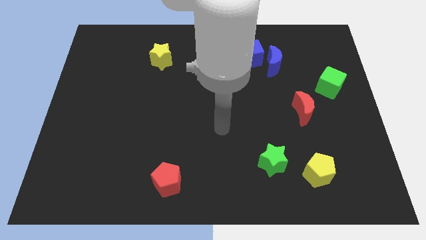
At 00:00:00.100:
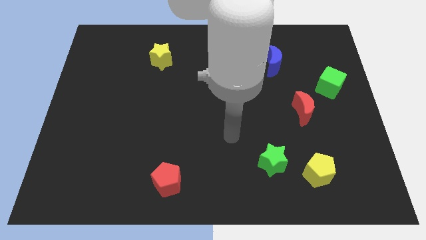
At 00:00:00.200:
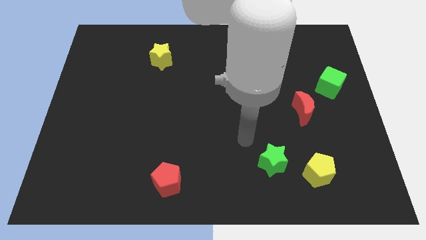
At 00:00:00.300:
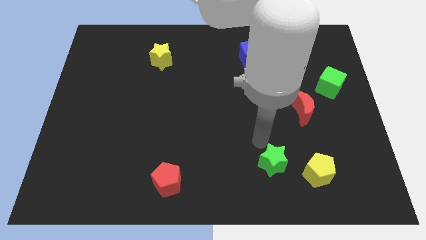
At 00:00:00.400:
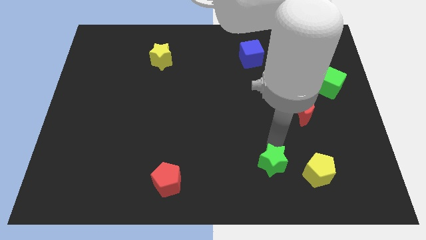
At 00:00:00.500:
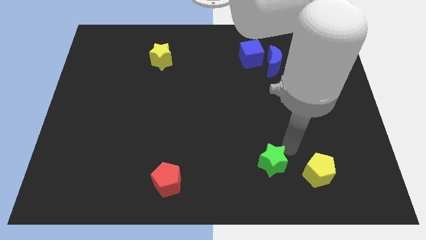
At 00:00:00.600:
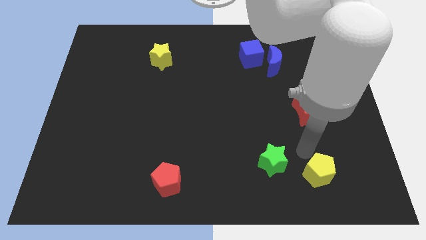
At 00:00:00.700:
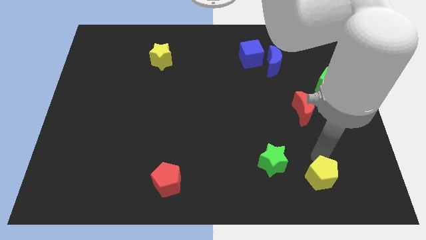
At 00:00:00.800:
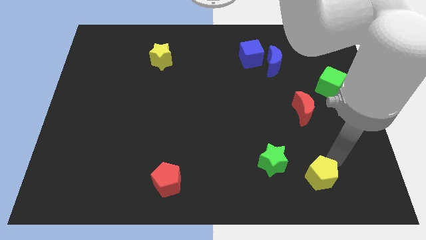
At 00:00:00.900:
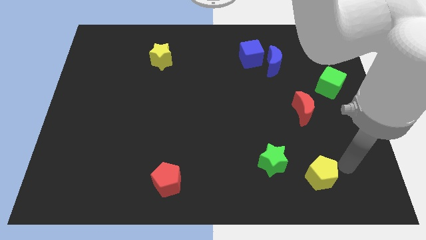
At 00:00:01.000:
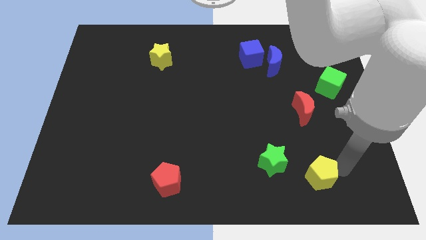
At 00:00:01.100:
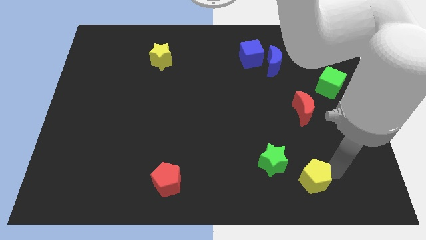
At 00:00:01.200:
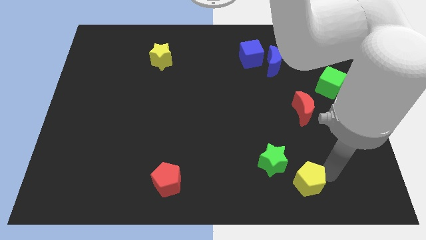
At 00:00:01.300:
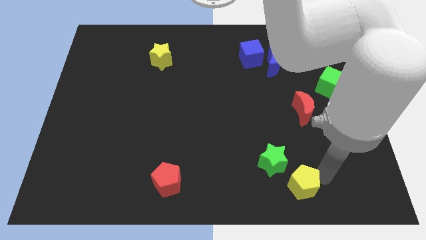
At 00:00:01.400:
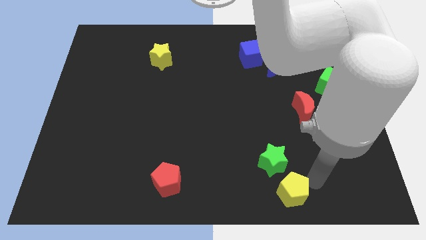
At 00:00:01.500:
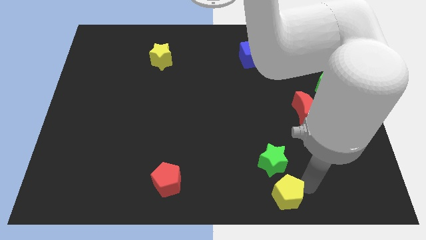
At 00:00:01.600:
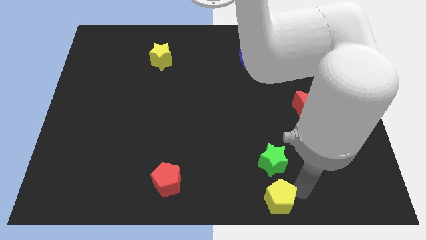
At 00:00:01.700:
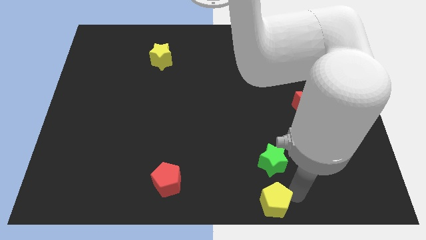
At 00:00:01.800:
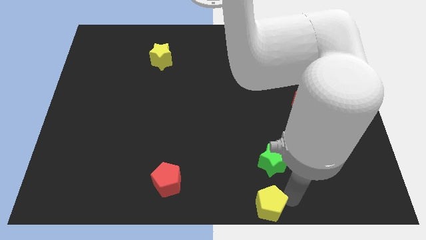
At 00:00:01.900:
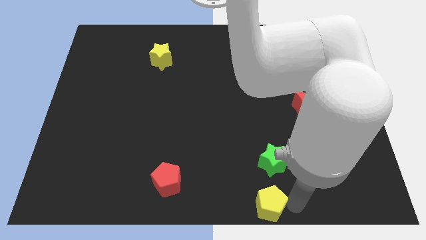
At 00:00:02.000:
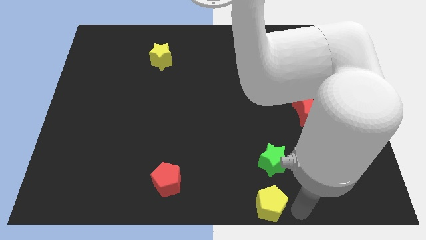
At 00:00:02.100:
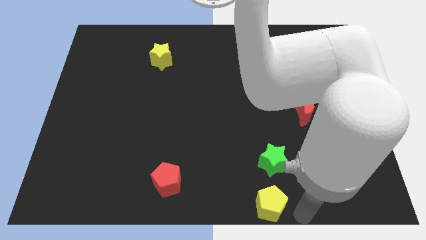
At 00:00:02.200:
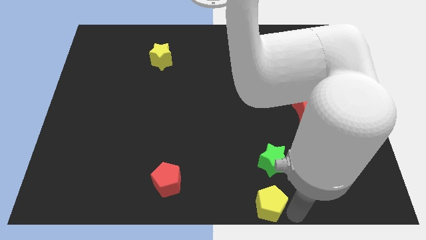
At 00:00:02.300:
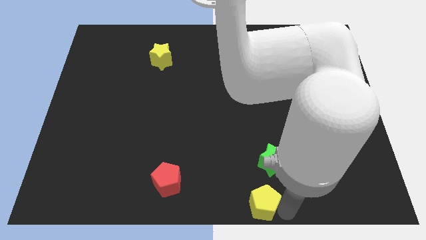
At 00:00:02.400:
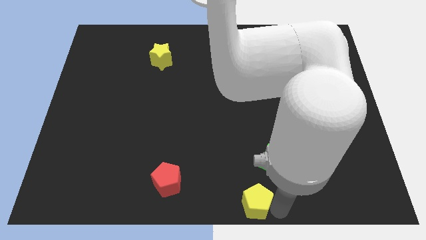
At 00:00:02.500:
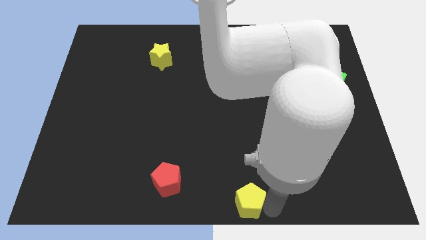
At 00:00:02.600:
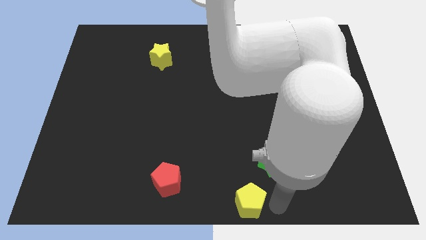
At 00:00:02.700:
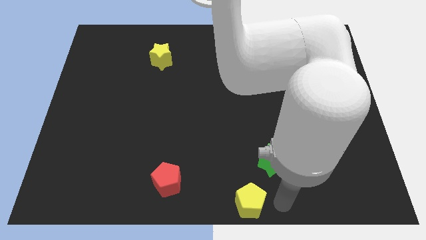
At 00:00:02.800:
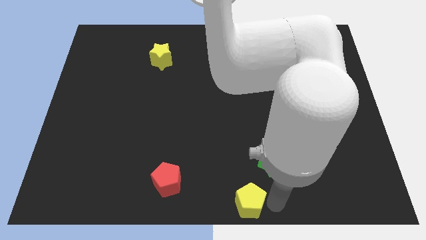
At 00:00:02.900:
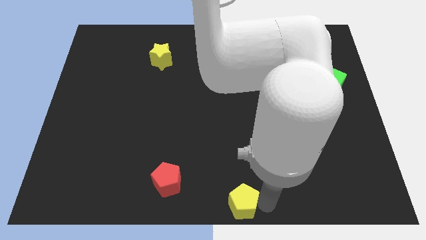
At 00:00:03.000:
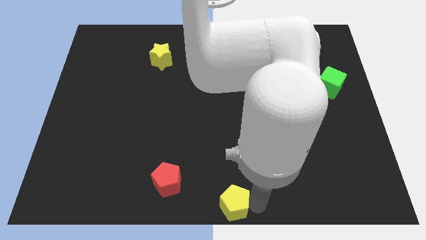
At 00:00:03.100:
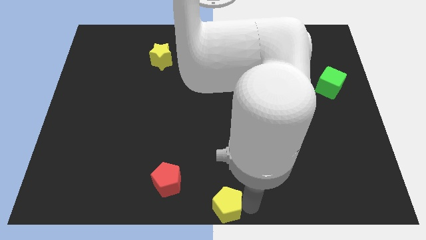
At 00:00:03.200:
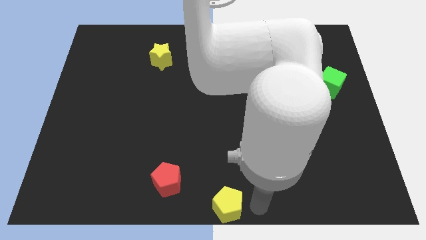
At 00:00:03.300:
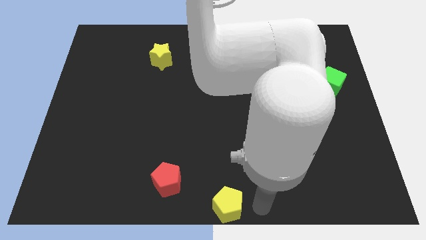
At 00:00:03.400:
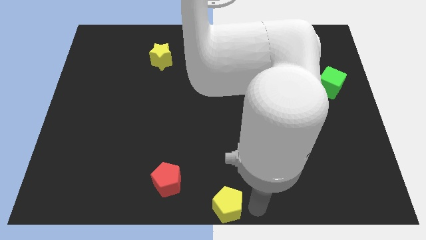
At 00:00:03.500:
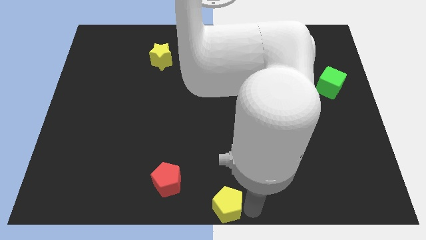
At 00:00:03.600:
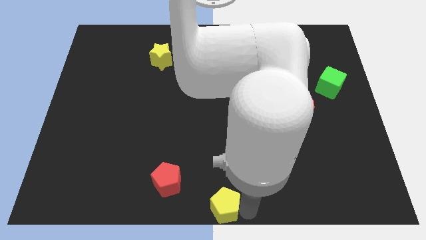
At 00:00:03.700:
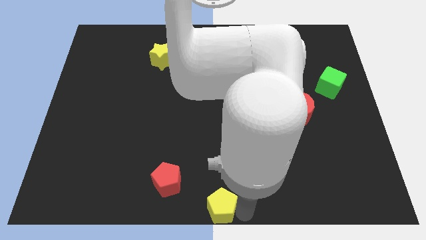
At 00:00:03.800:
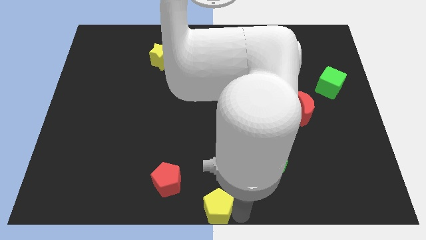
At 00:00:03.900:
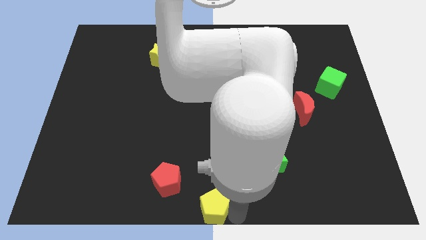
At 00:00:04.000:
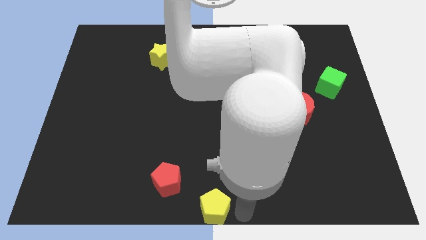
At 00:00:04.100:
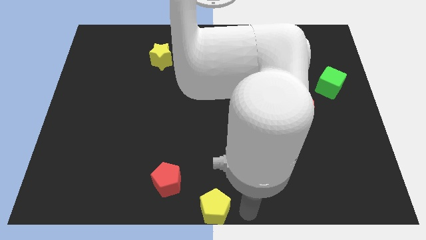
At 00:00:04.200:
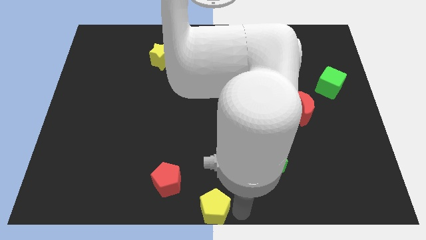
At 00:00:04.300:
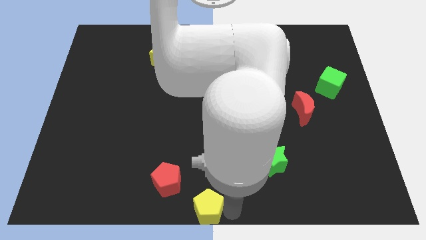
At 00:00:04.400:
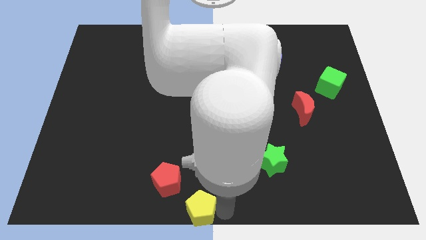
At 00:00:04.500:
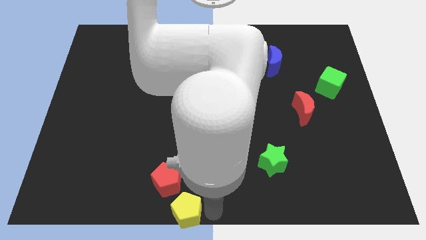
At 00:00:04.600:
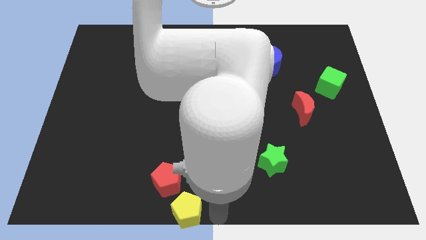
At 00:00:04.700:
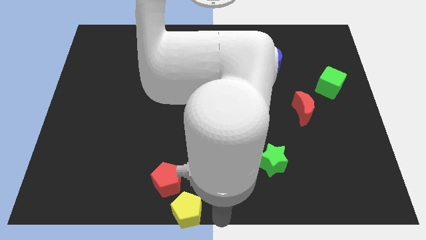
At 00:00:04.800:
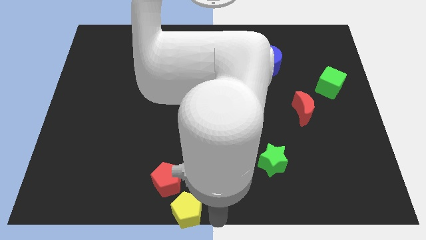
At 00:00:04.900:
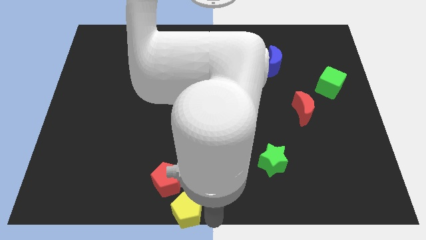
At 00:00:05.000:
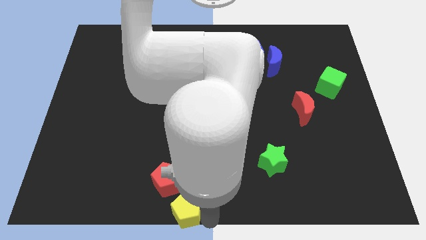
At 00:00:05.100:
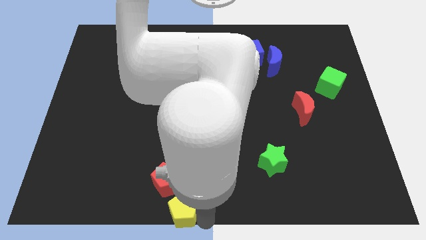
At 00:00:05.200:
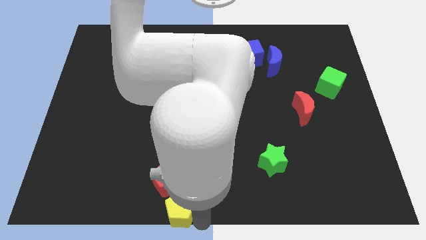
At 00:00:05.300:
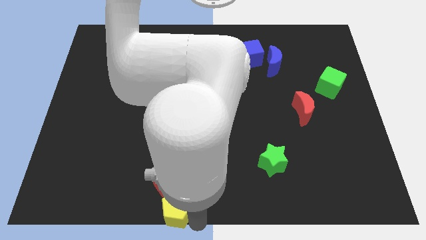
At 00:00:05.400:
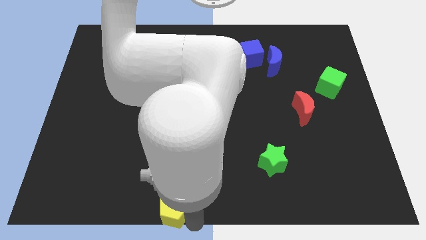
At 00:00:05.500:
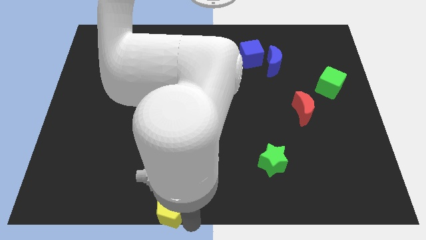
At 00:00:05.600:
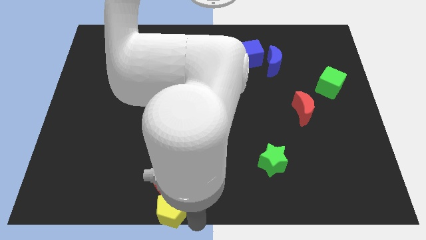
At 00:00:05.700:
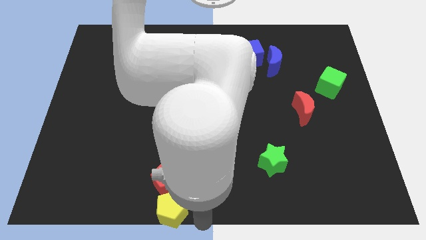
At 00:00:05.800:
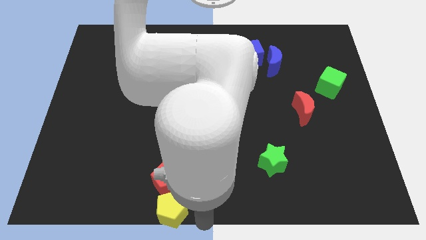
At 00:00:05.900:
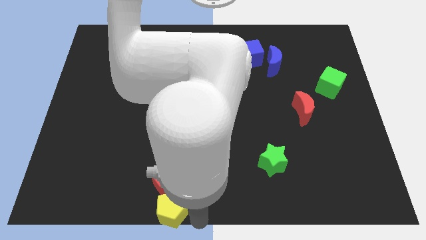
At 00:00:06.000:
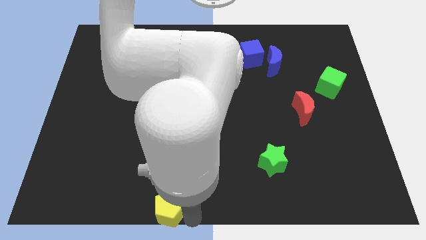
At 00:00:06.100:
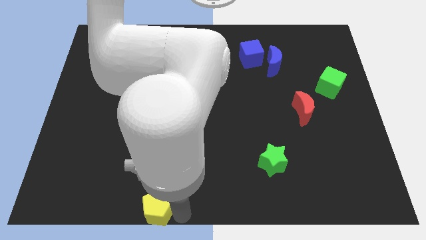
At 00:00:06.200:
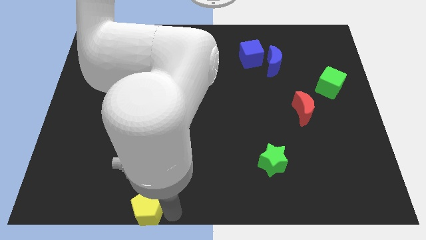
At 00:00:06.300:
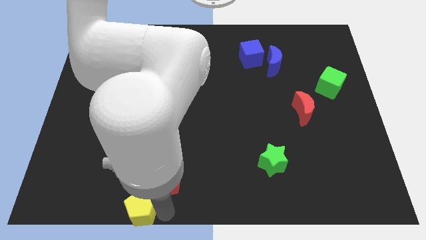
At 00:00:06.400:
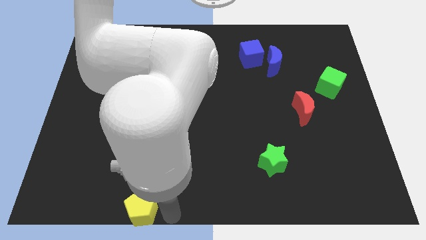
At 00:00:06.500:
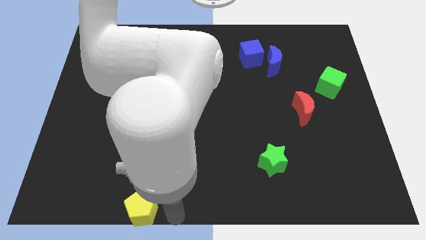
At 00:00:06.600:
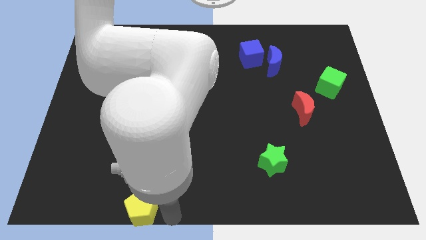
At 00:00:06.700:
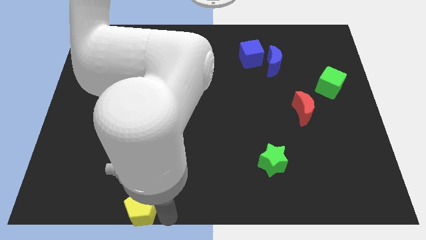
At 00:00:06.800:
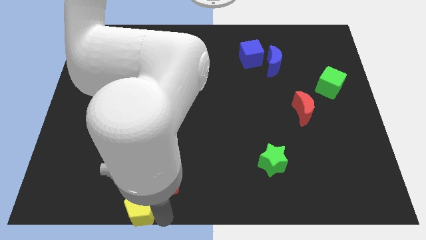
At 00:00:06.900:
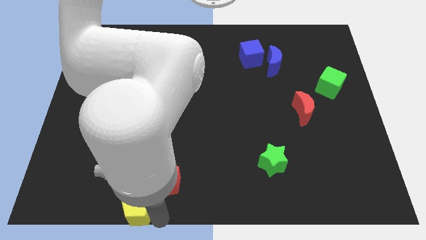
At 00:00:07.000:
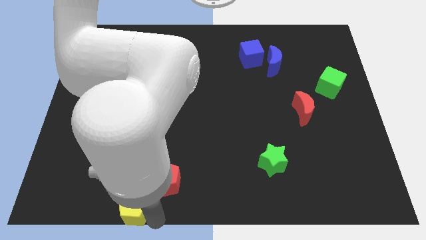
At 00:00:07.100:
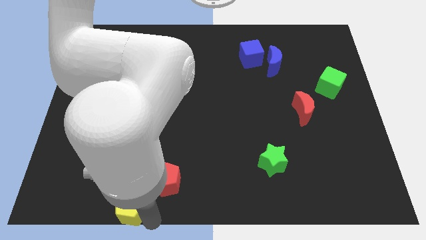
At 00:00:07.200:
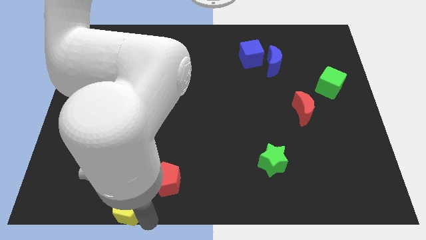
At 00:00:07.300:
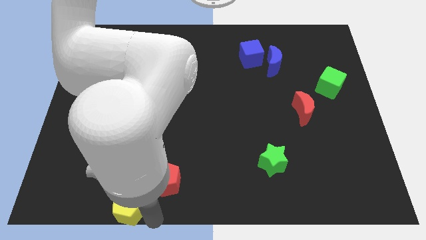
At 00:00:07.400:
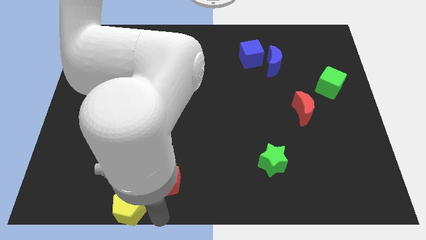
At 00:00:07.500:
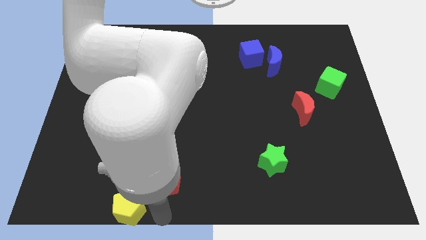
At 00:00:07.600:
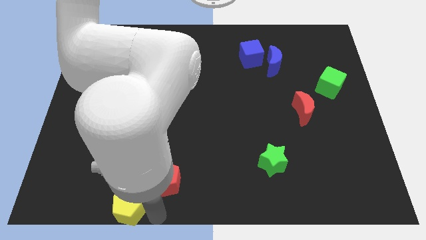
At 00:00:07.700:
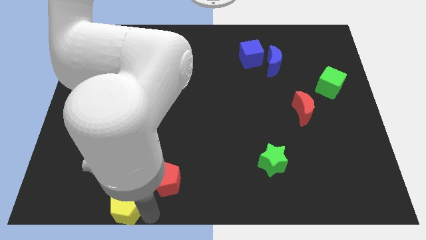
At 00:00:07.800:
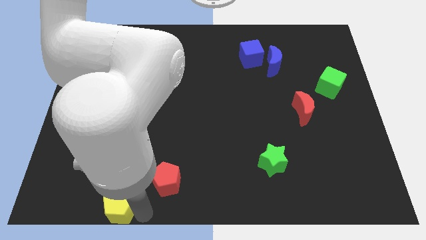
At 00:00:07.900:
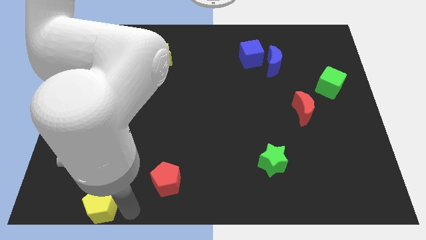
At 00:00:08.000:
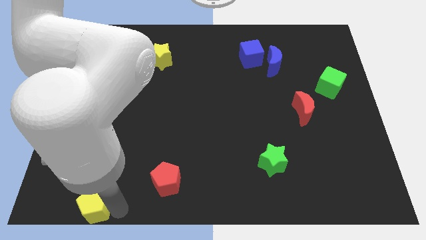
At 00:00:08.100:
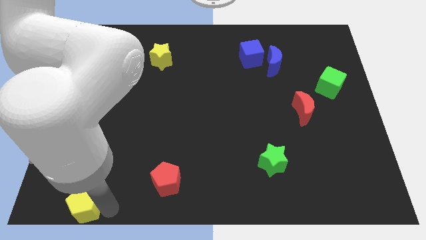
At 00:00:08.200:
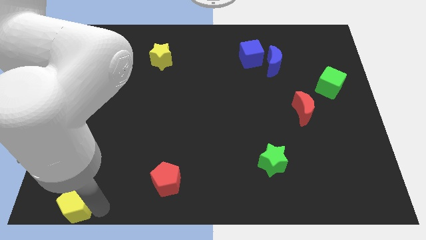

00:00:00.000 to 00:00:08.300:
put the yellow pentagon to the bottom left corner
